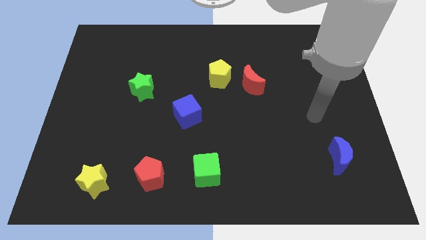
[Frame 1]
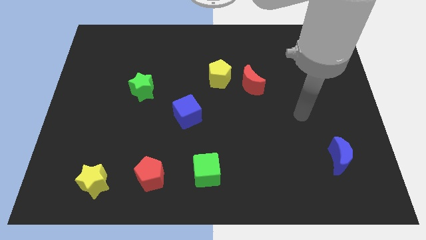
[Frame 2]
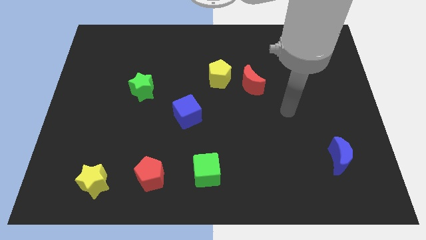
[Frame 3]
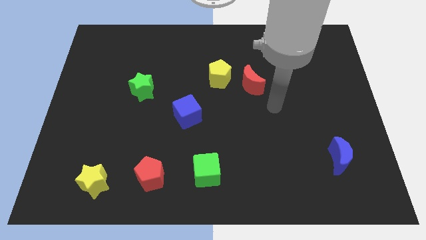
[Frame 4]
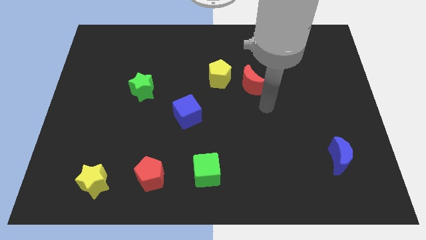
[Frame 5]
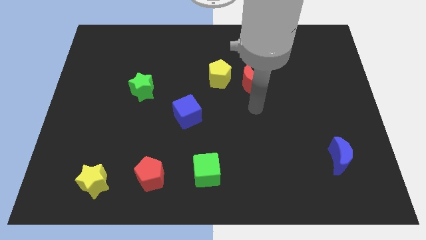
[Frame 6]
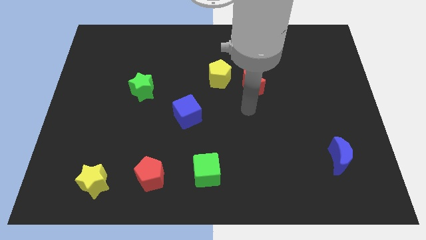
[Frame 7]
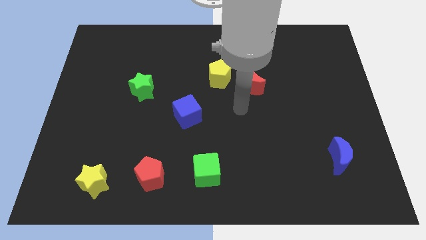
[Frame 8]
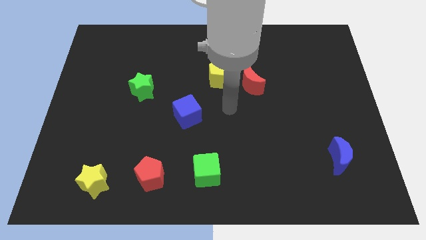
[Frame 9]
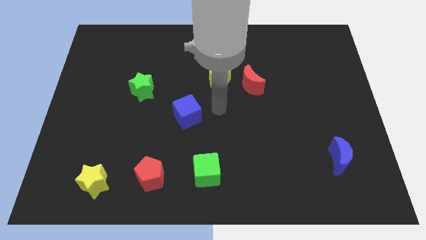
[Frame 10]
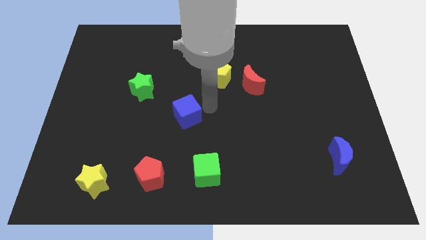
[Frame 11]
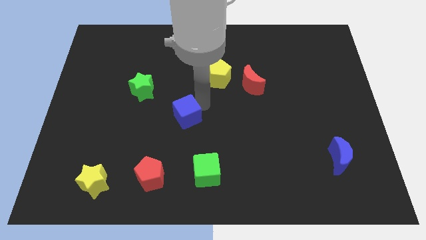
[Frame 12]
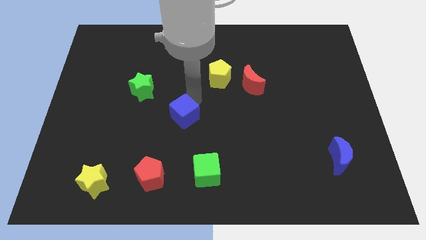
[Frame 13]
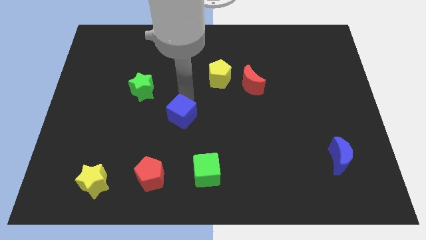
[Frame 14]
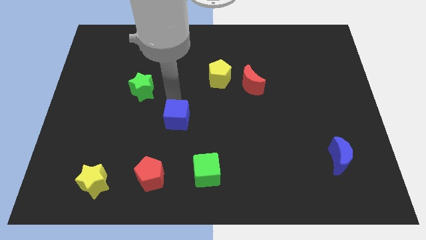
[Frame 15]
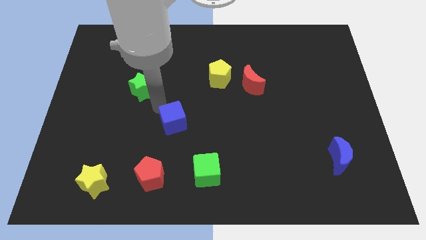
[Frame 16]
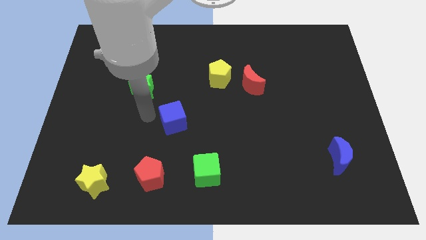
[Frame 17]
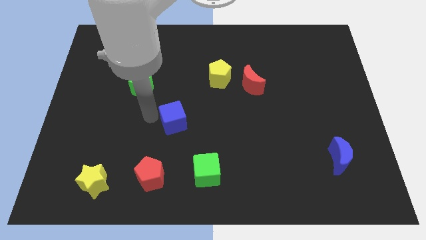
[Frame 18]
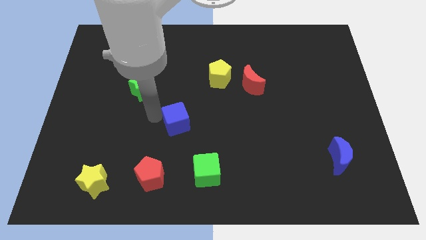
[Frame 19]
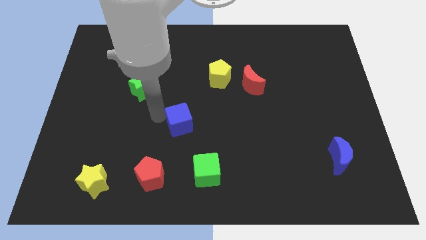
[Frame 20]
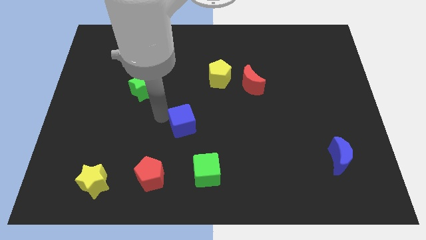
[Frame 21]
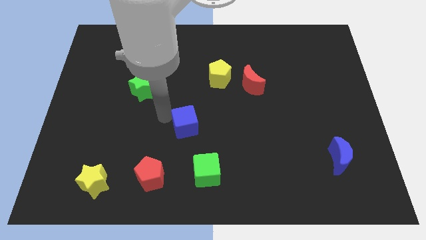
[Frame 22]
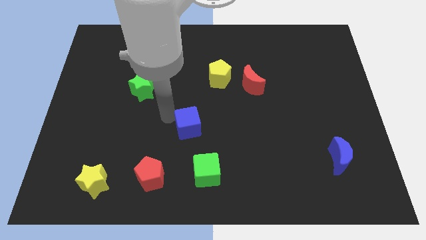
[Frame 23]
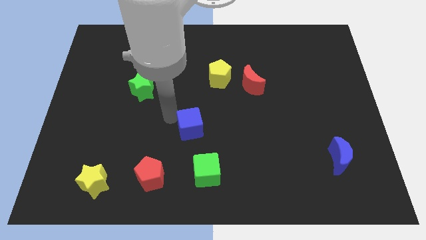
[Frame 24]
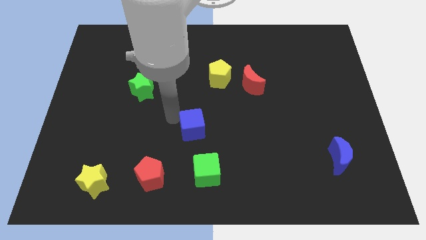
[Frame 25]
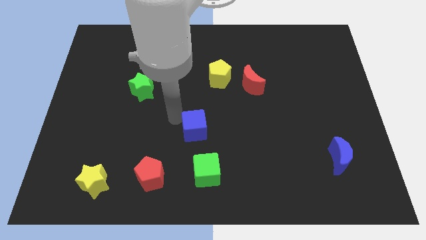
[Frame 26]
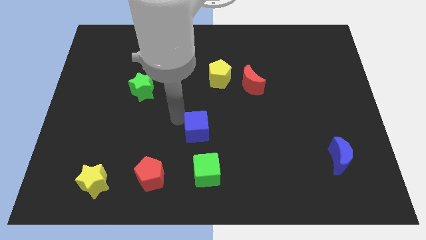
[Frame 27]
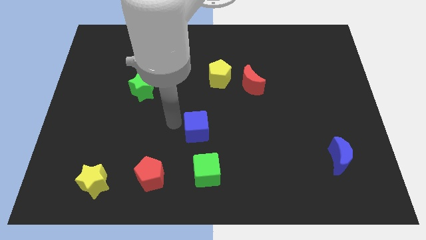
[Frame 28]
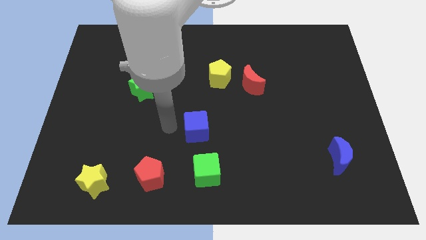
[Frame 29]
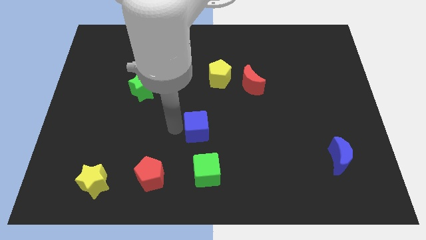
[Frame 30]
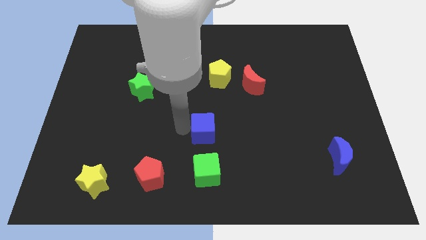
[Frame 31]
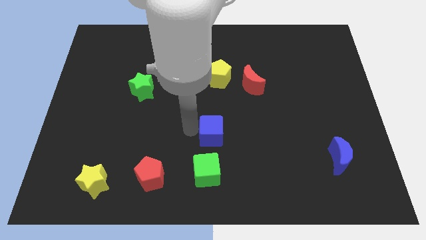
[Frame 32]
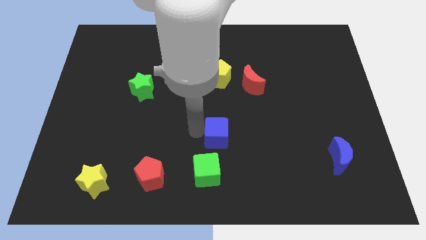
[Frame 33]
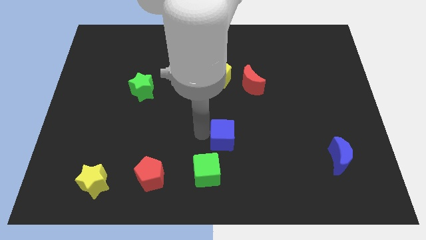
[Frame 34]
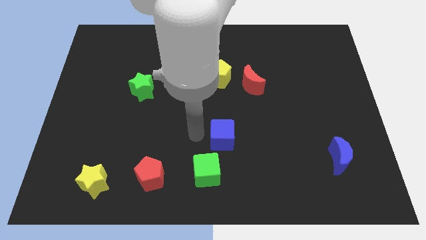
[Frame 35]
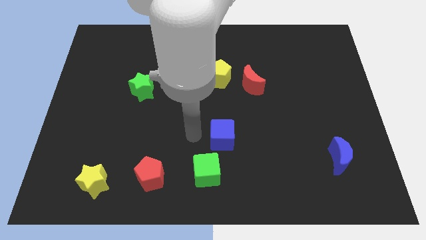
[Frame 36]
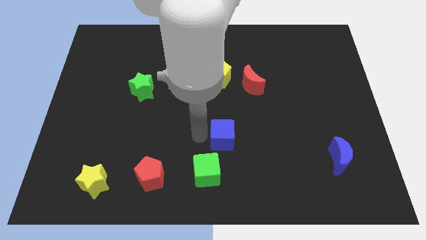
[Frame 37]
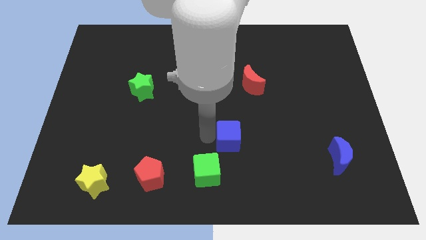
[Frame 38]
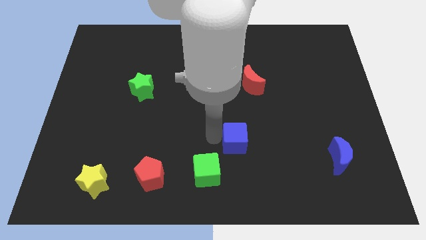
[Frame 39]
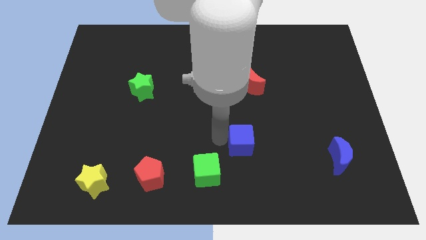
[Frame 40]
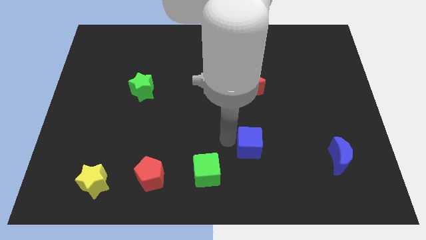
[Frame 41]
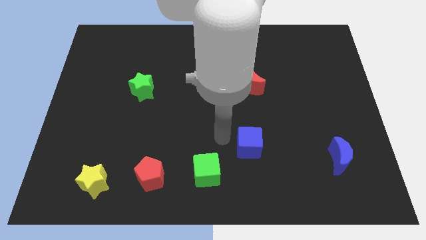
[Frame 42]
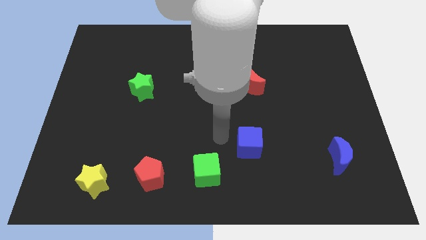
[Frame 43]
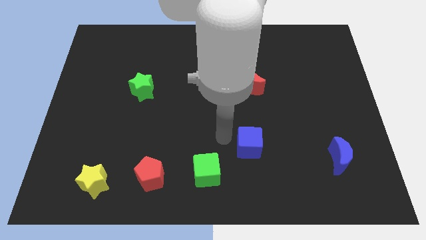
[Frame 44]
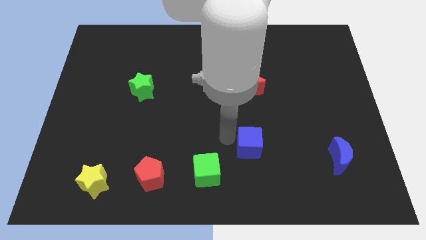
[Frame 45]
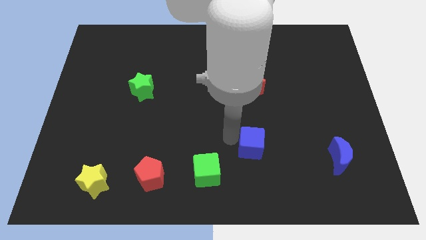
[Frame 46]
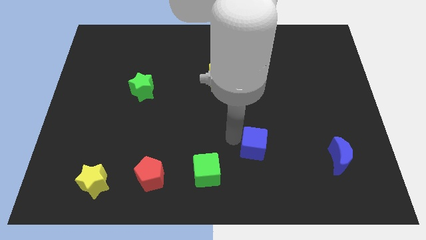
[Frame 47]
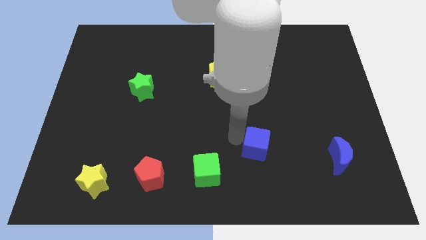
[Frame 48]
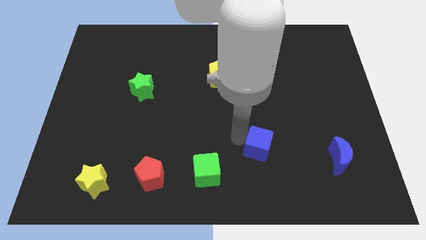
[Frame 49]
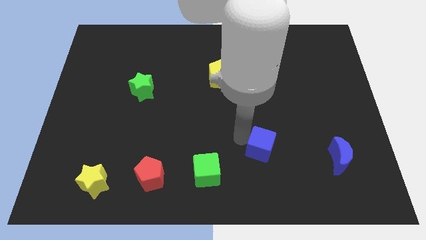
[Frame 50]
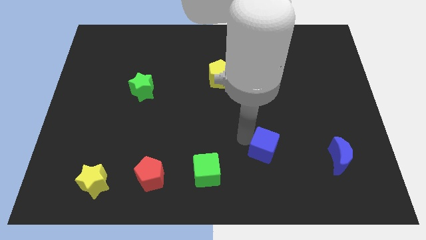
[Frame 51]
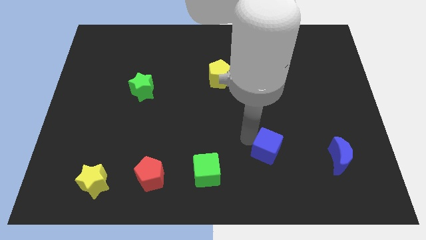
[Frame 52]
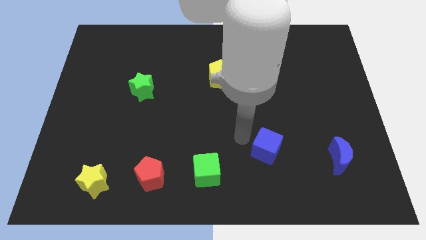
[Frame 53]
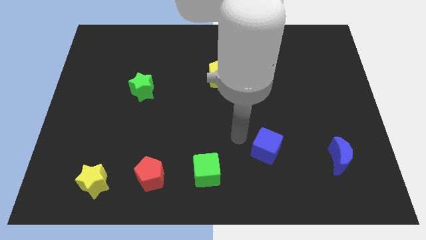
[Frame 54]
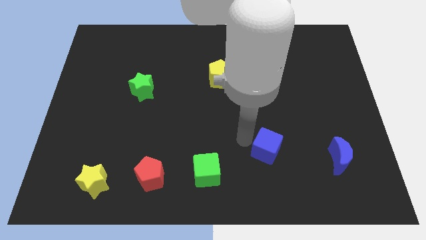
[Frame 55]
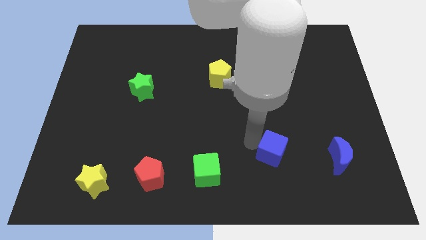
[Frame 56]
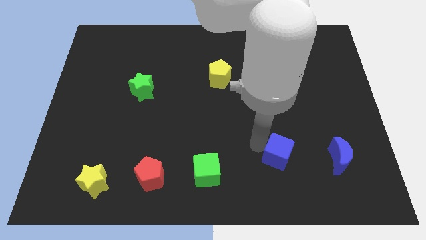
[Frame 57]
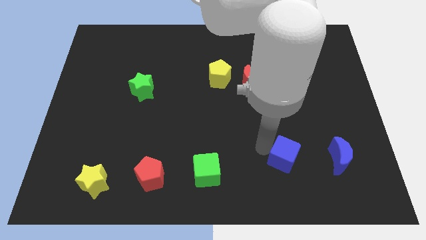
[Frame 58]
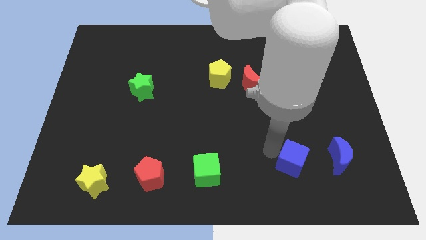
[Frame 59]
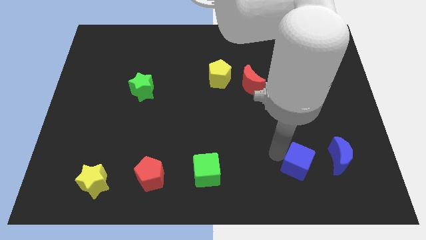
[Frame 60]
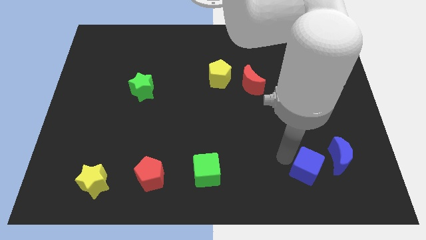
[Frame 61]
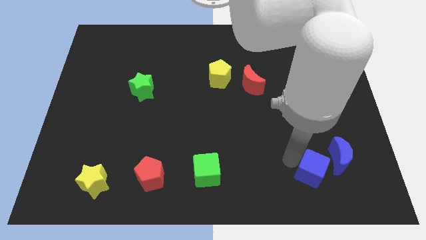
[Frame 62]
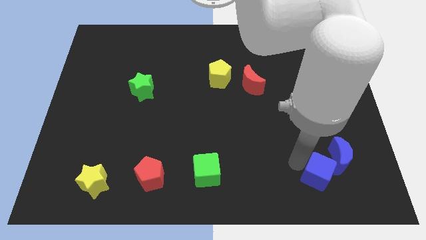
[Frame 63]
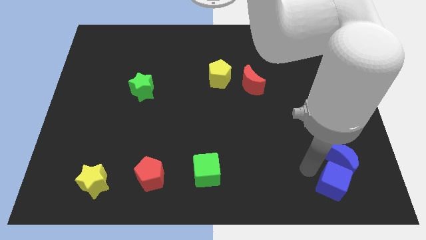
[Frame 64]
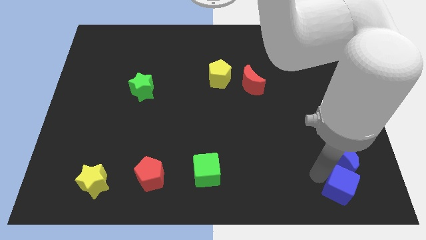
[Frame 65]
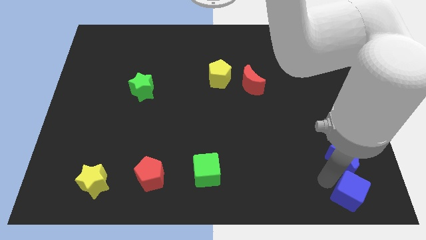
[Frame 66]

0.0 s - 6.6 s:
push the blue cube to the lower right corner
